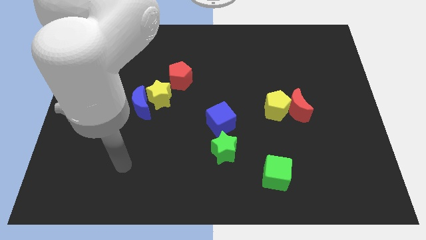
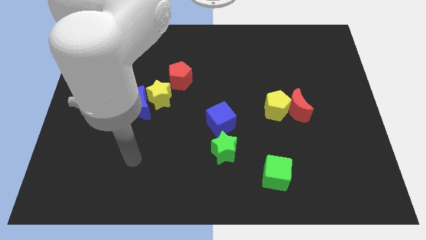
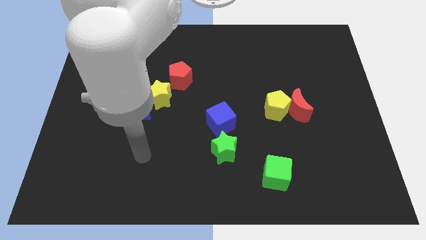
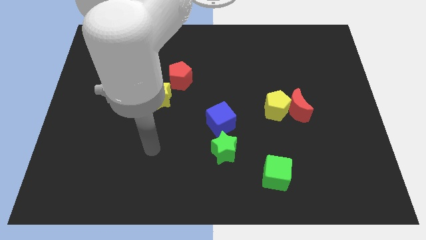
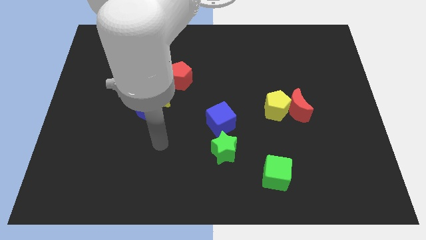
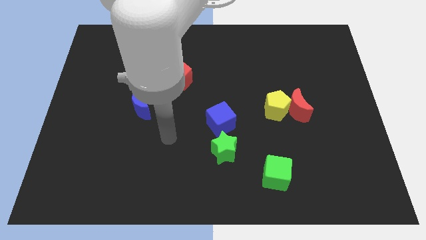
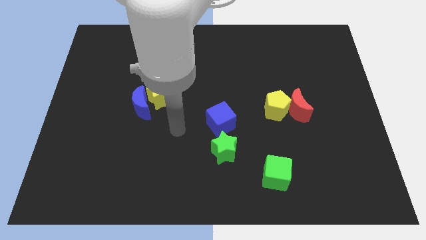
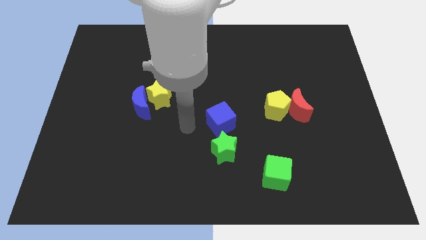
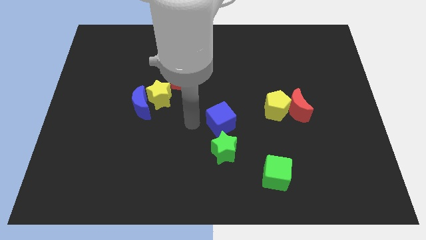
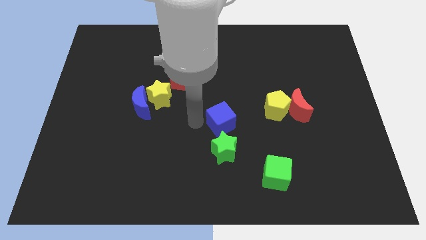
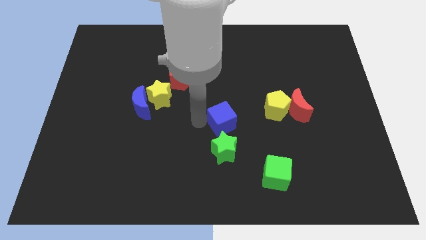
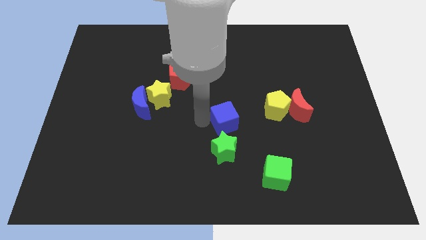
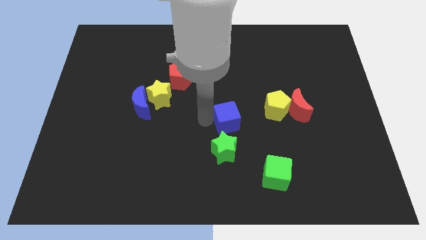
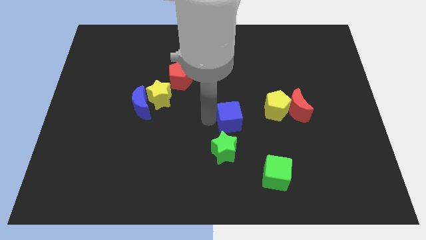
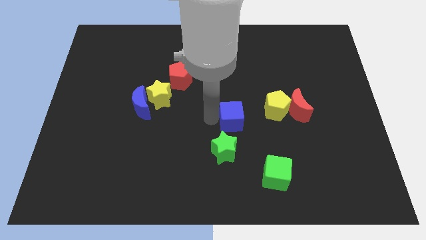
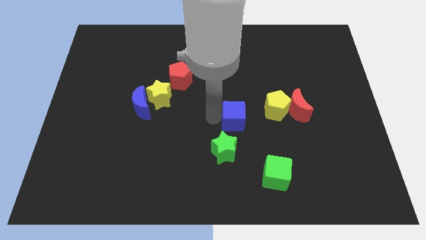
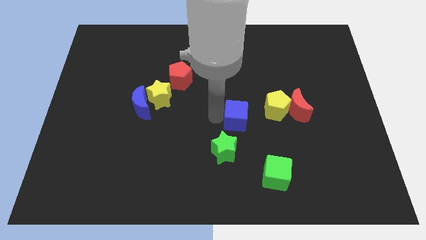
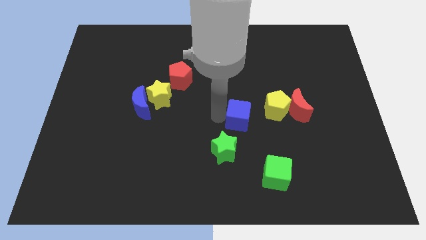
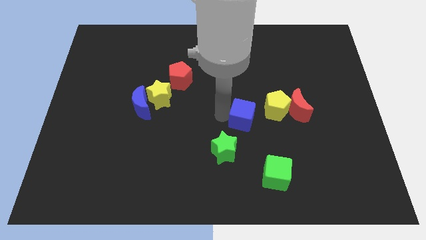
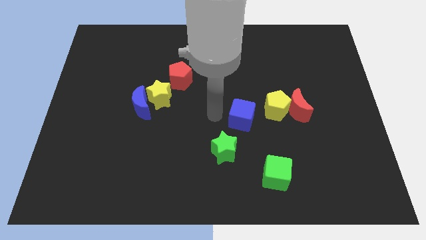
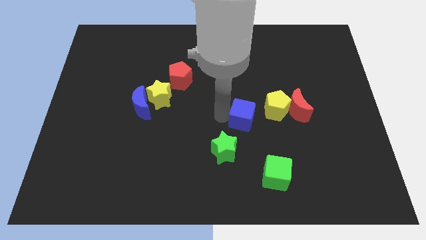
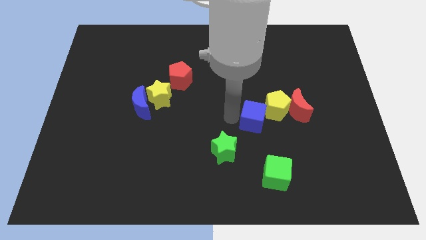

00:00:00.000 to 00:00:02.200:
slightly push the blue cube right

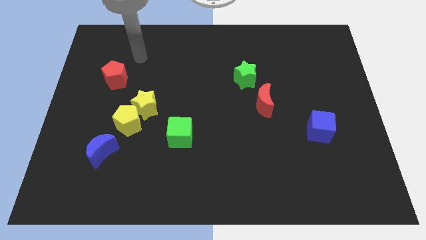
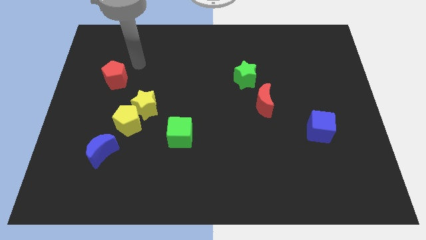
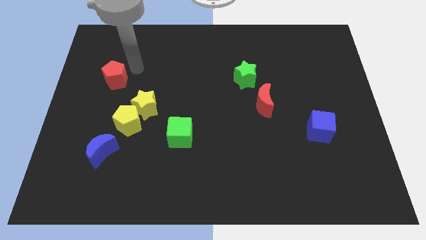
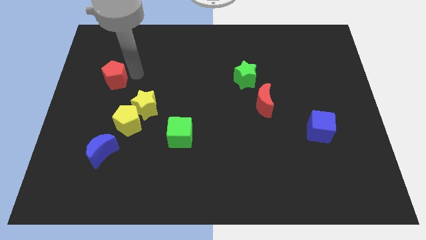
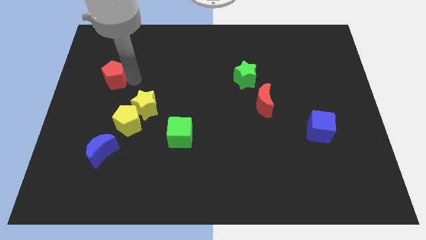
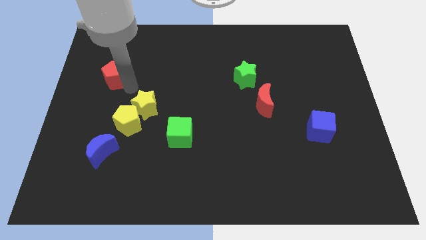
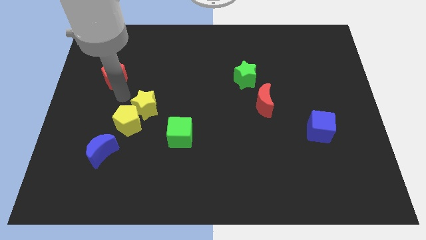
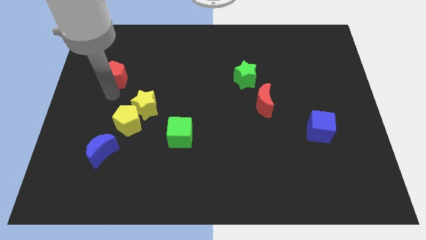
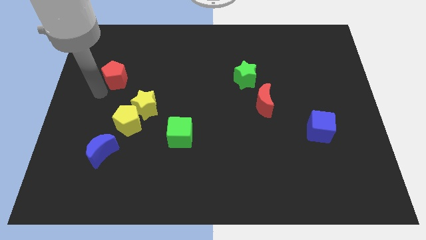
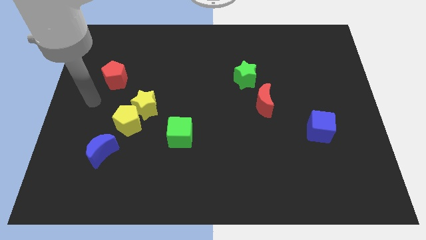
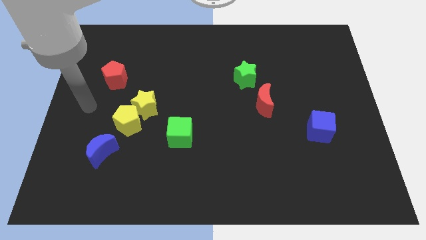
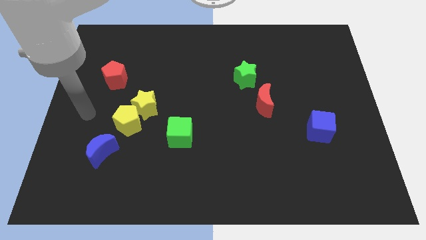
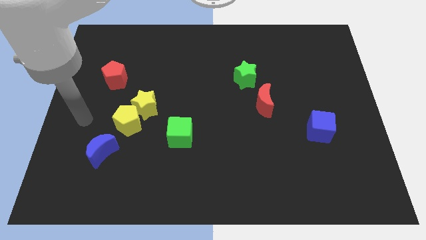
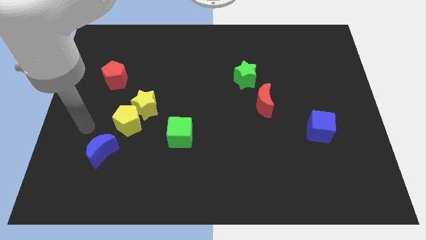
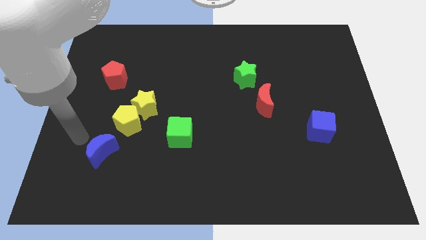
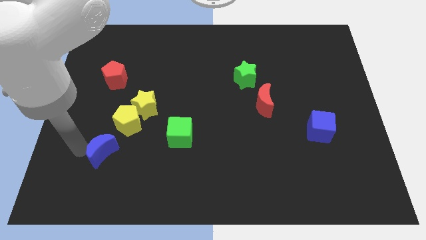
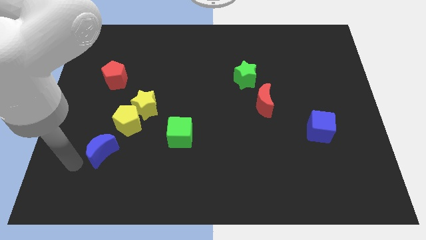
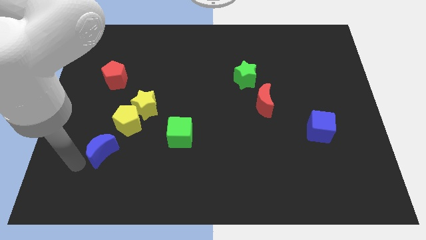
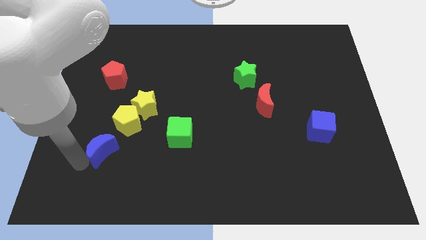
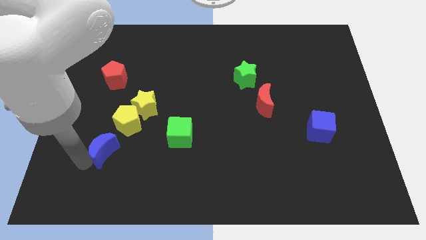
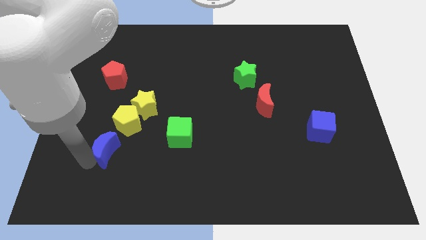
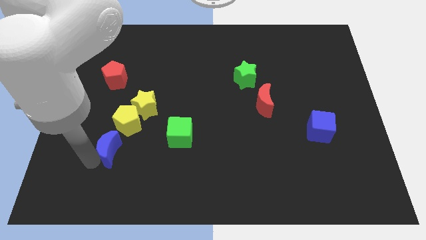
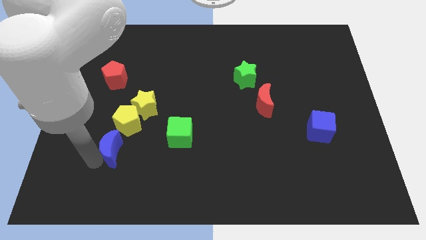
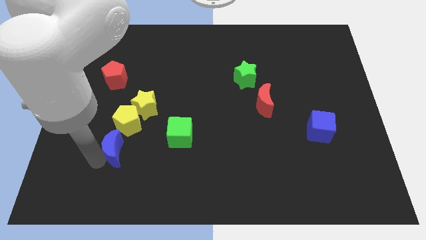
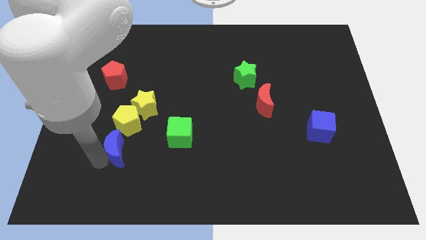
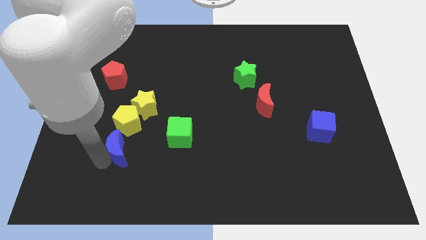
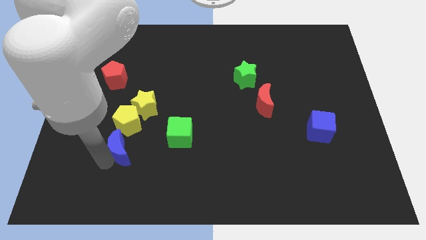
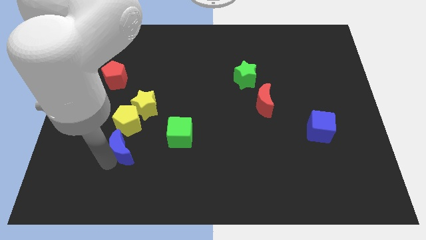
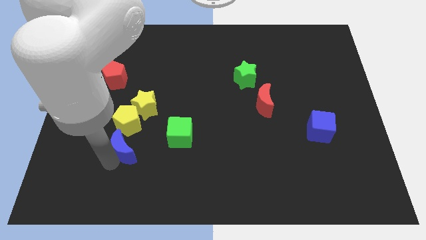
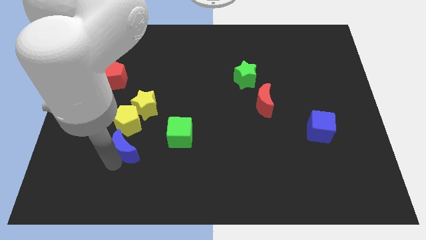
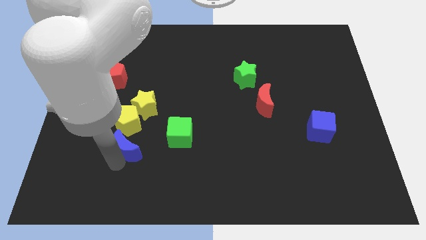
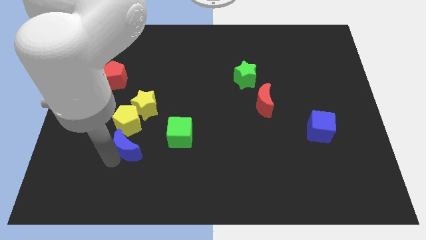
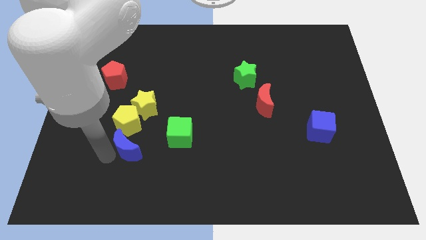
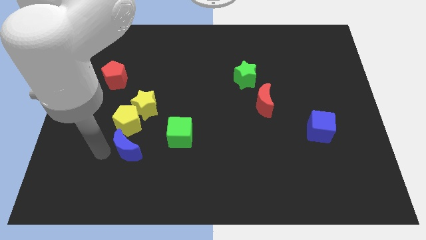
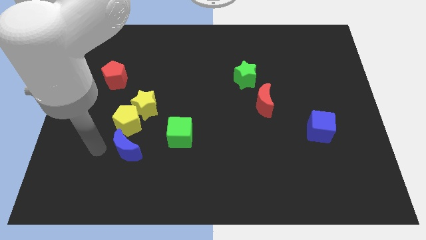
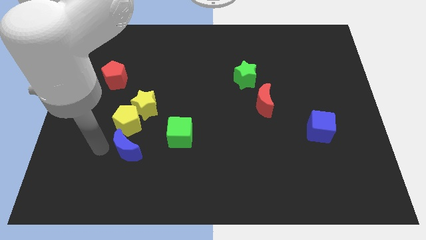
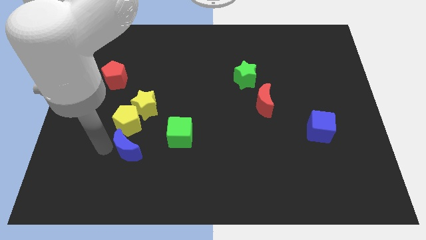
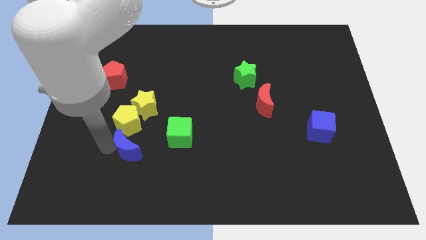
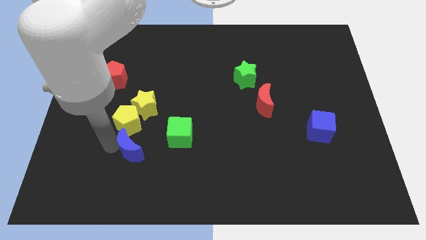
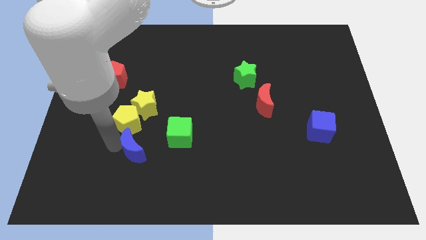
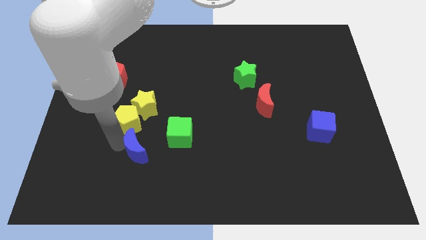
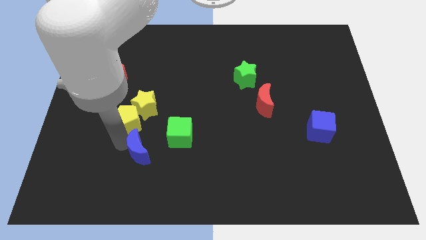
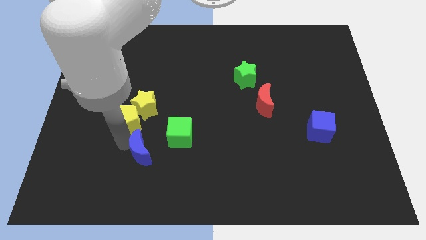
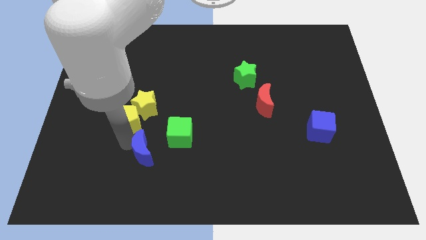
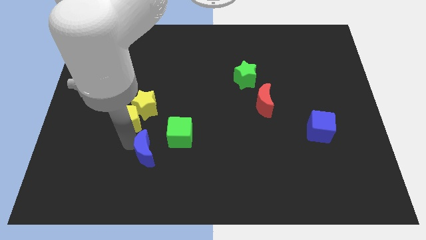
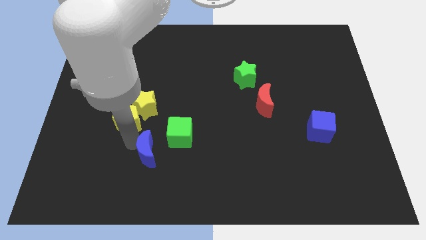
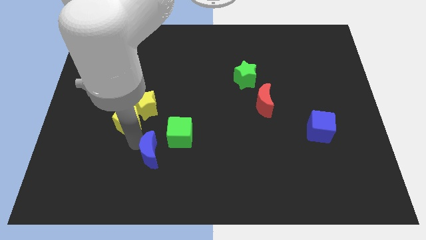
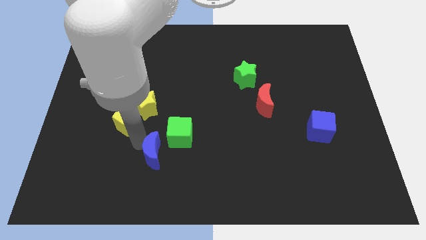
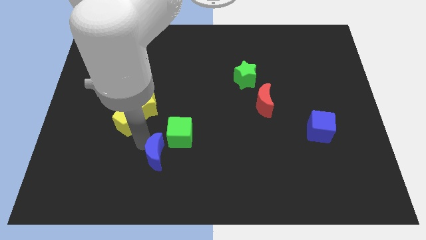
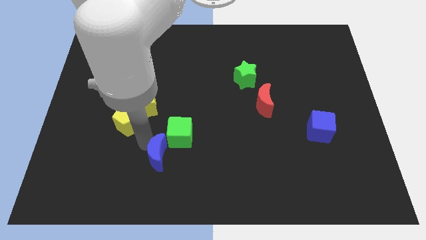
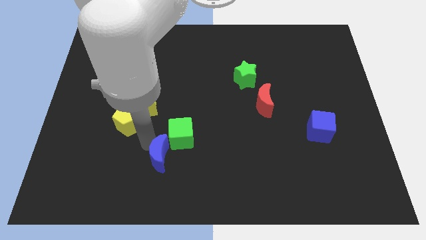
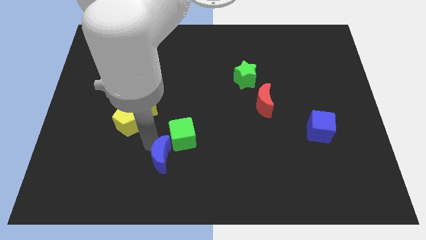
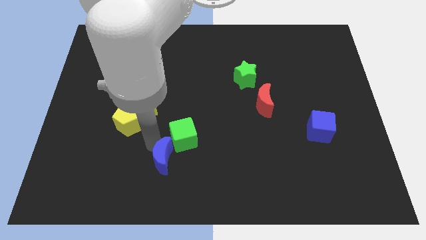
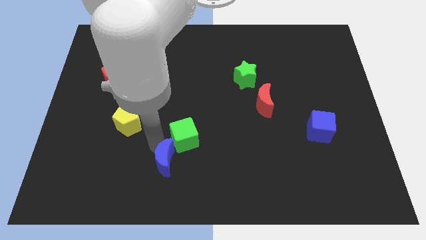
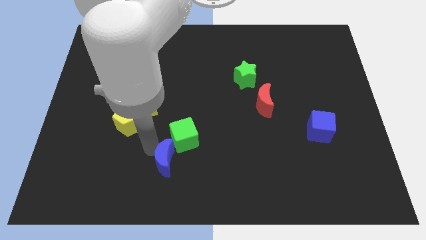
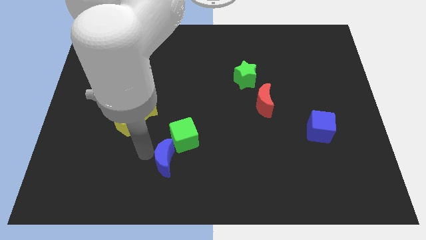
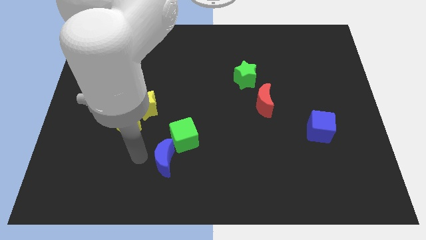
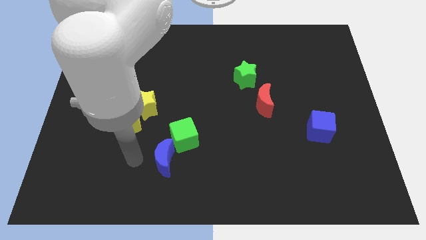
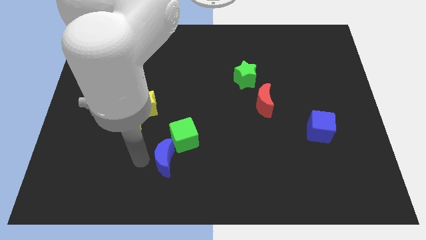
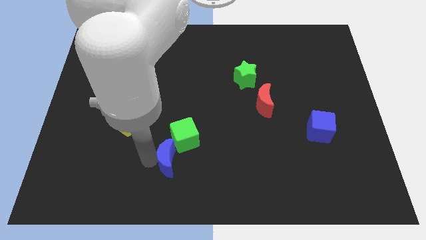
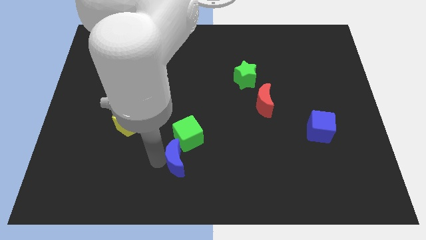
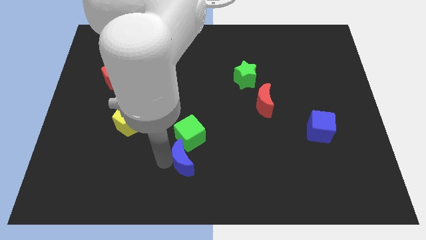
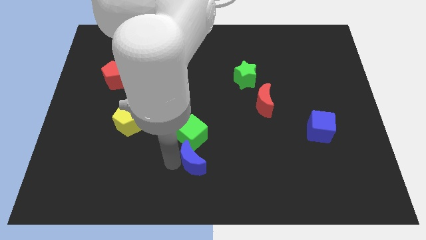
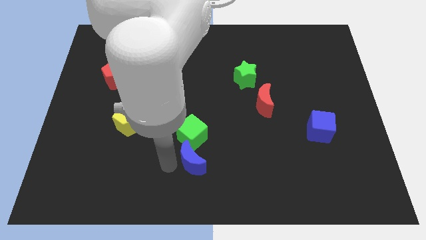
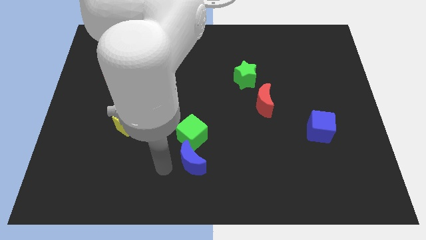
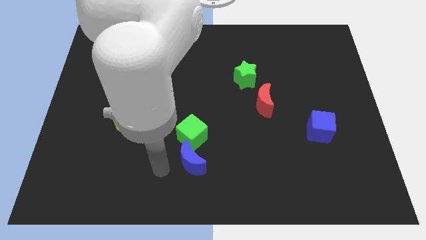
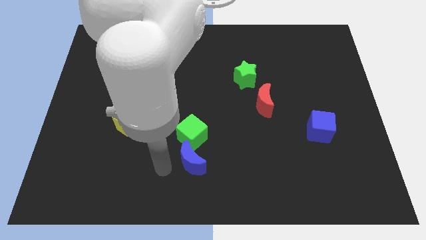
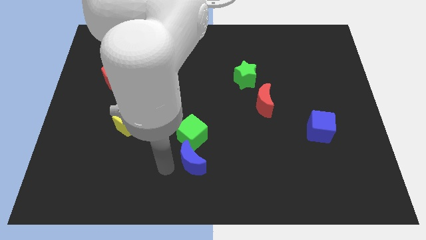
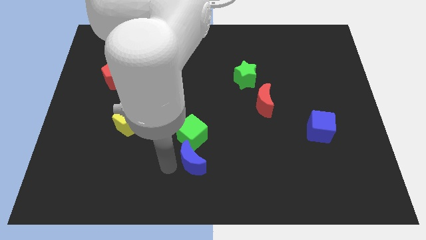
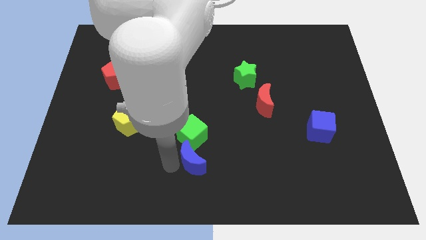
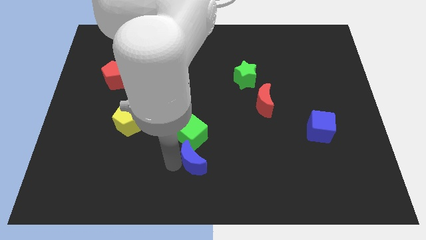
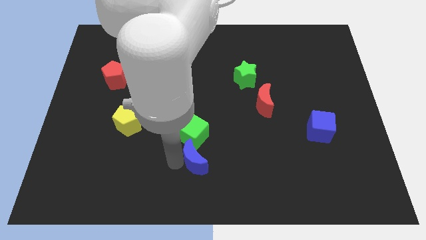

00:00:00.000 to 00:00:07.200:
push the blue moon to the right
